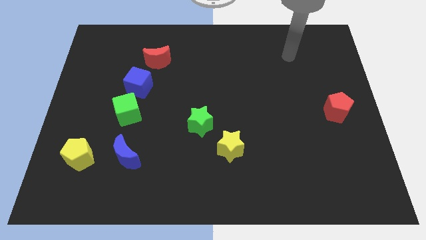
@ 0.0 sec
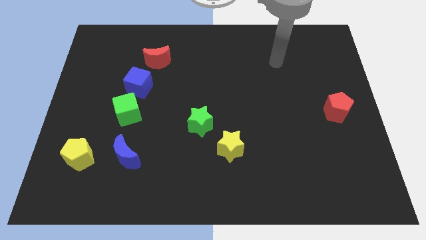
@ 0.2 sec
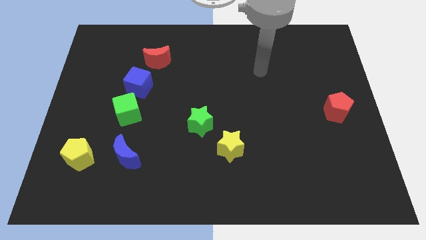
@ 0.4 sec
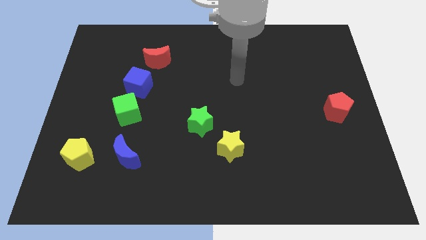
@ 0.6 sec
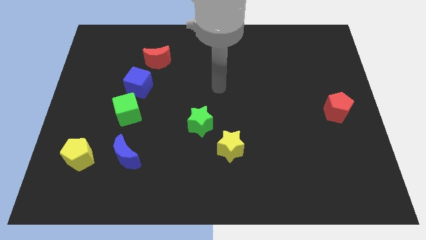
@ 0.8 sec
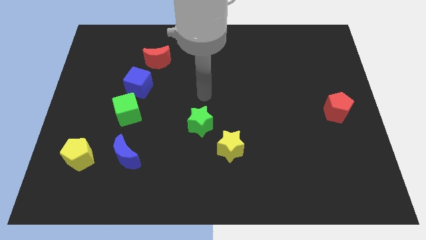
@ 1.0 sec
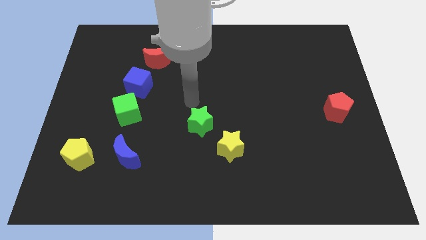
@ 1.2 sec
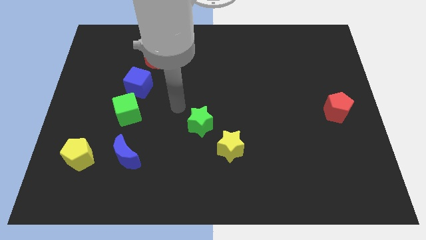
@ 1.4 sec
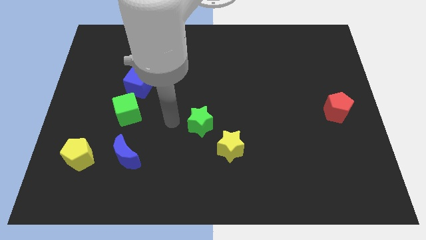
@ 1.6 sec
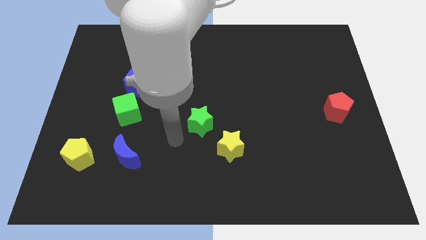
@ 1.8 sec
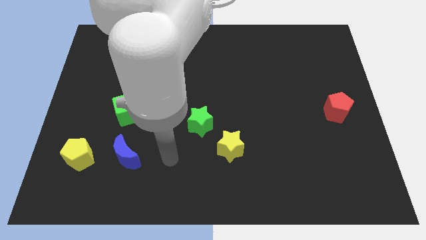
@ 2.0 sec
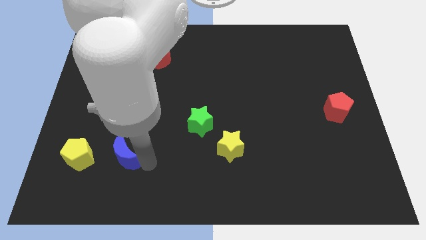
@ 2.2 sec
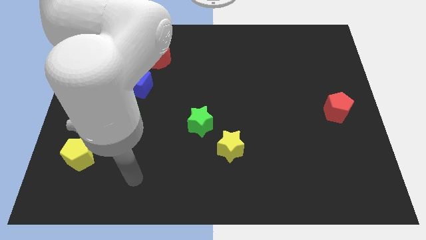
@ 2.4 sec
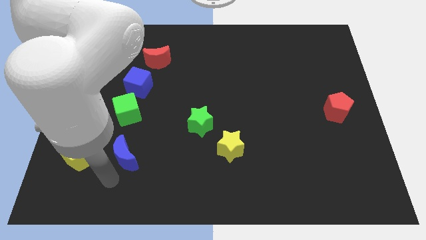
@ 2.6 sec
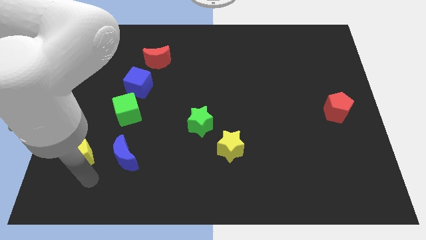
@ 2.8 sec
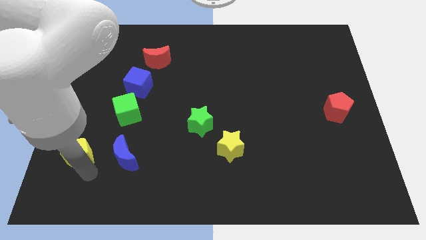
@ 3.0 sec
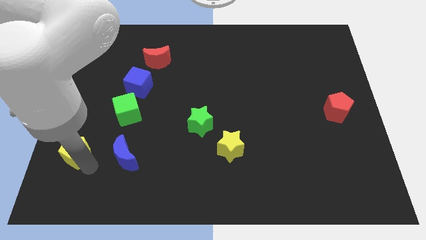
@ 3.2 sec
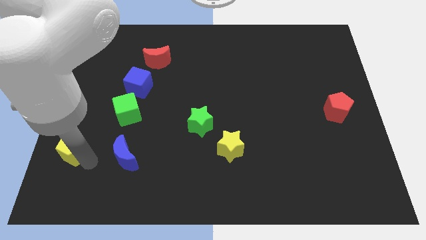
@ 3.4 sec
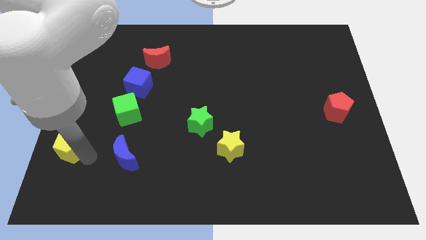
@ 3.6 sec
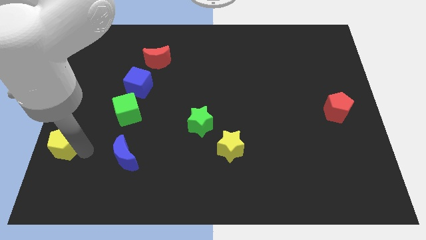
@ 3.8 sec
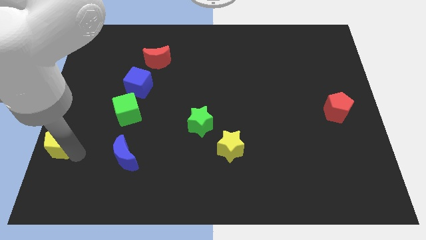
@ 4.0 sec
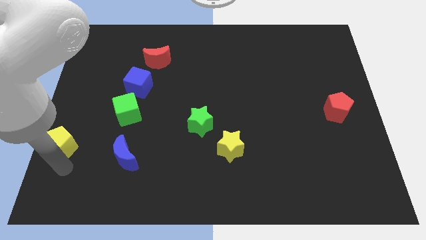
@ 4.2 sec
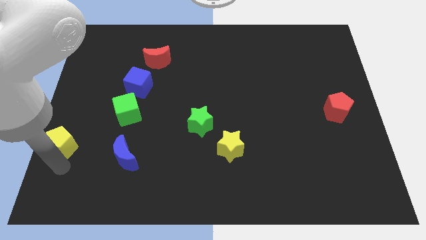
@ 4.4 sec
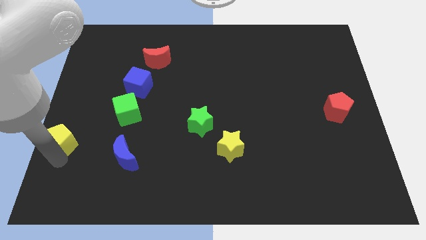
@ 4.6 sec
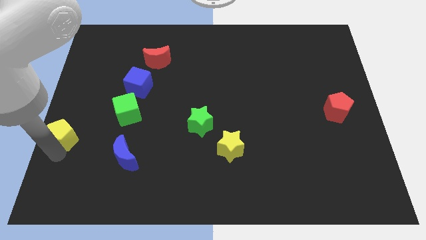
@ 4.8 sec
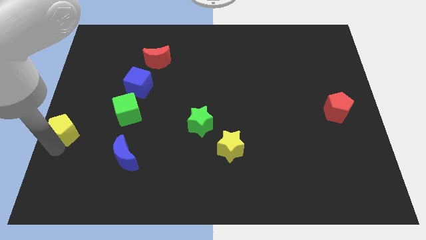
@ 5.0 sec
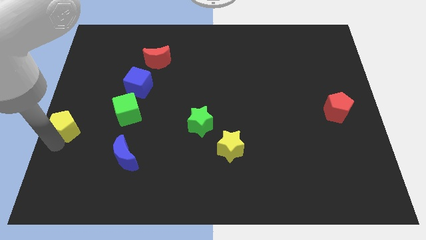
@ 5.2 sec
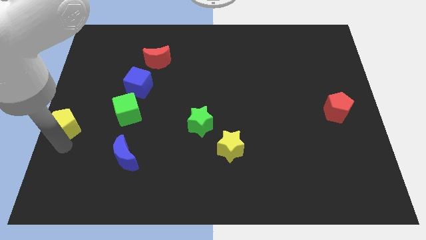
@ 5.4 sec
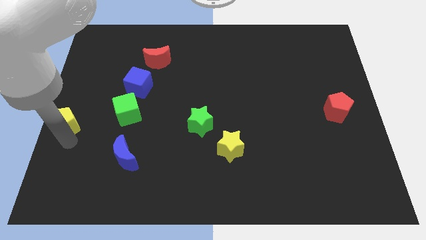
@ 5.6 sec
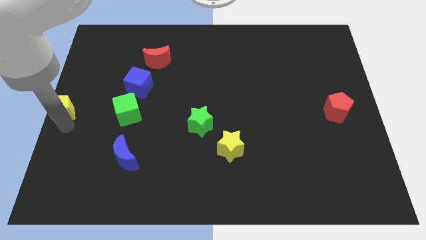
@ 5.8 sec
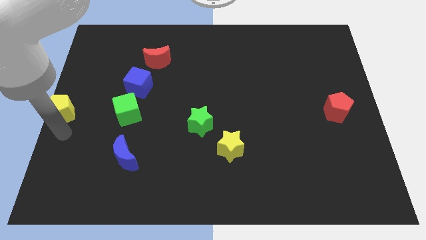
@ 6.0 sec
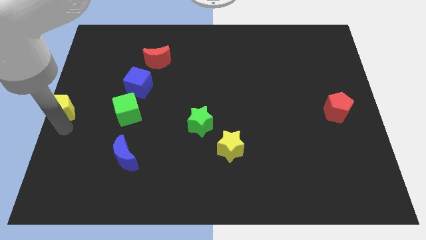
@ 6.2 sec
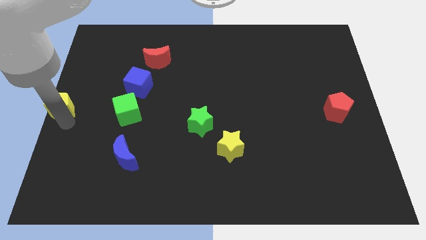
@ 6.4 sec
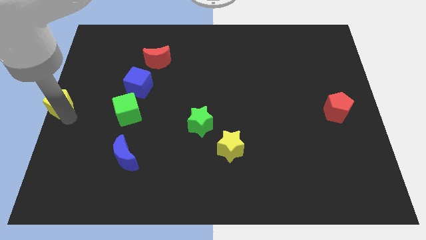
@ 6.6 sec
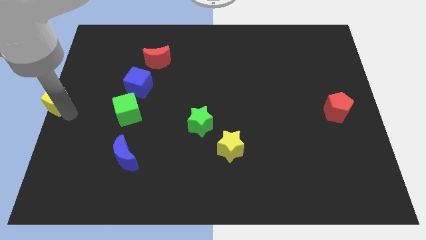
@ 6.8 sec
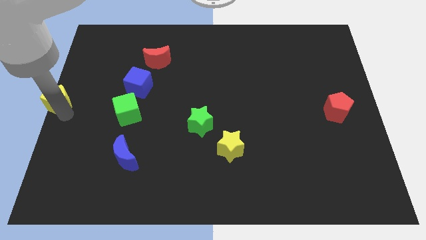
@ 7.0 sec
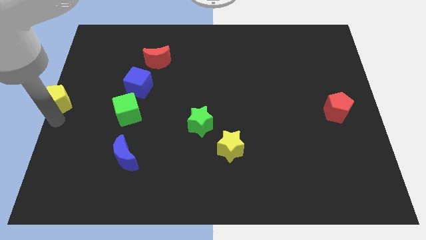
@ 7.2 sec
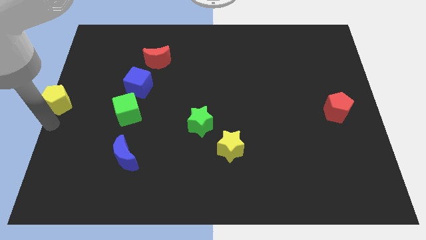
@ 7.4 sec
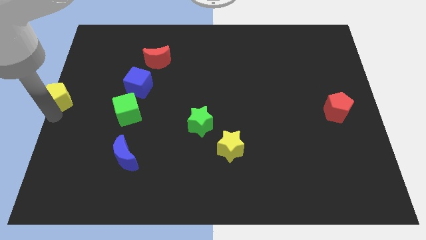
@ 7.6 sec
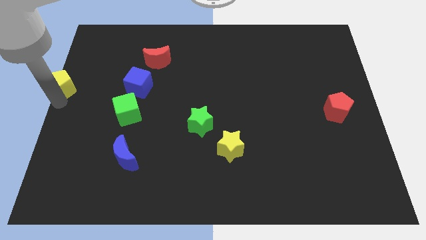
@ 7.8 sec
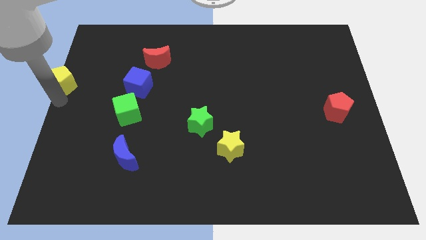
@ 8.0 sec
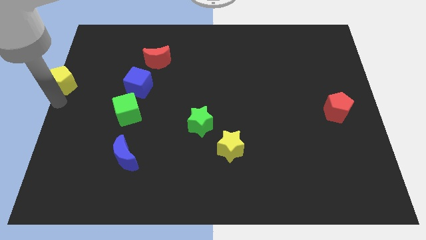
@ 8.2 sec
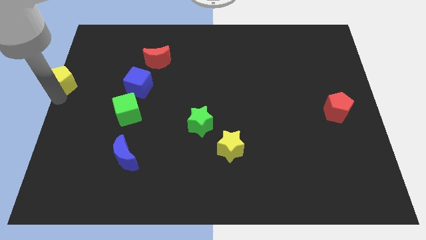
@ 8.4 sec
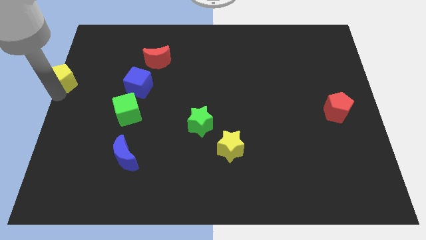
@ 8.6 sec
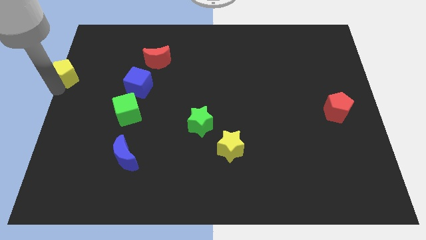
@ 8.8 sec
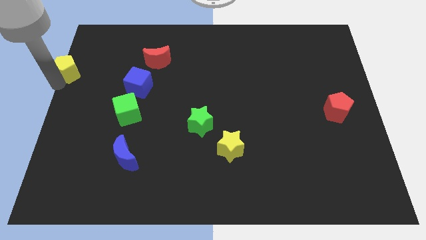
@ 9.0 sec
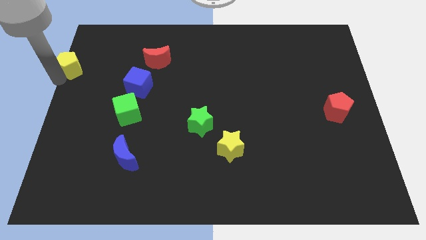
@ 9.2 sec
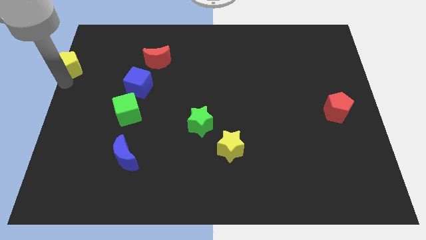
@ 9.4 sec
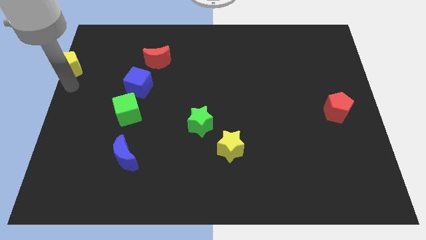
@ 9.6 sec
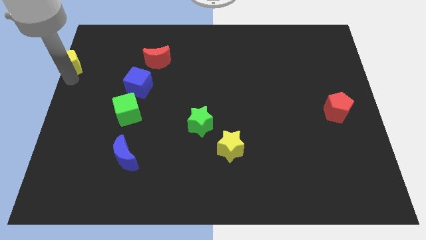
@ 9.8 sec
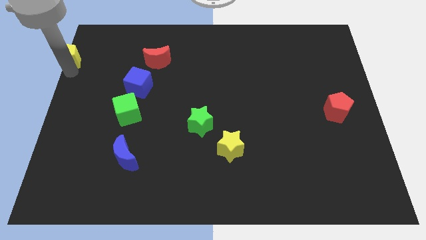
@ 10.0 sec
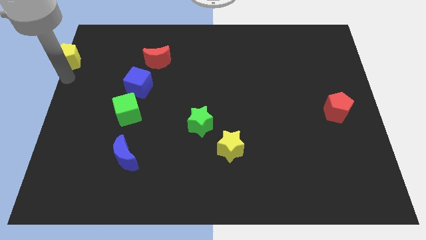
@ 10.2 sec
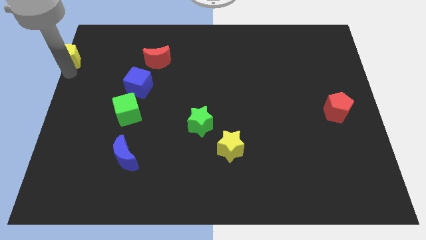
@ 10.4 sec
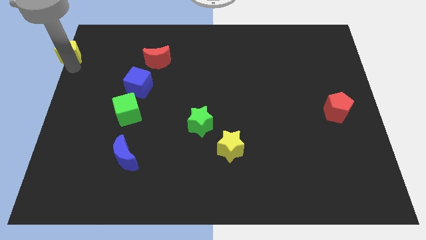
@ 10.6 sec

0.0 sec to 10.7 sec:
slide the yellow pentagon to the top left corner
